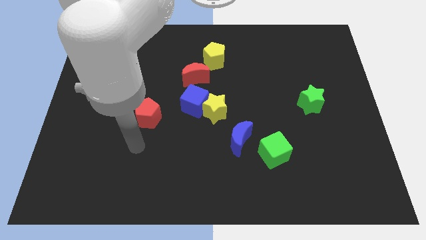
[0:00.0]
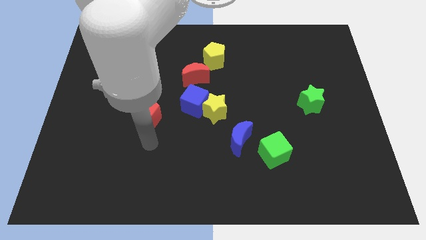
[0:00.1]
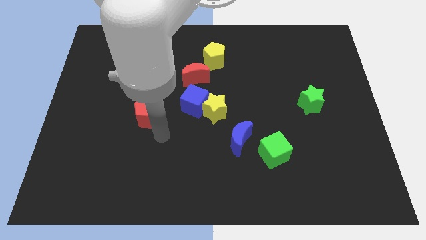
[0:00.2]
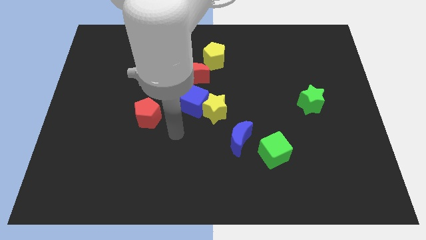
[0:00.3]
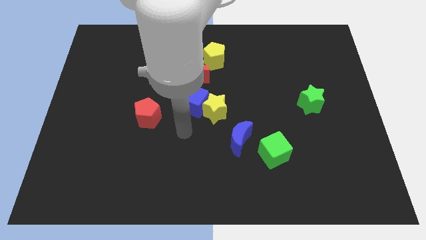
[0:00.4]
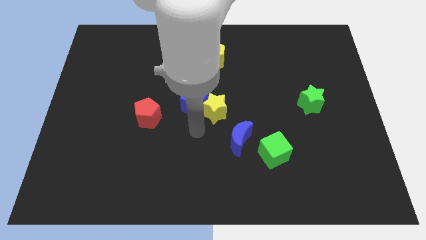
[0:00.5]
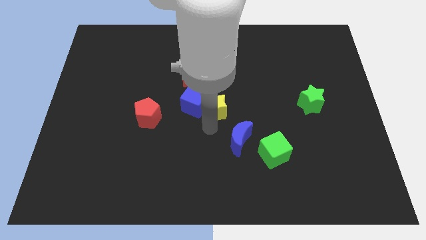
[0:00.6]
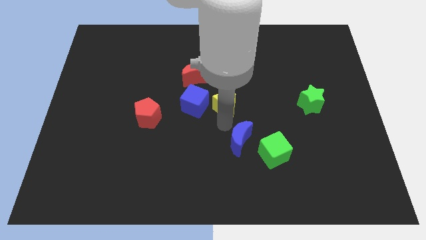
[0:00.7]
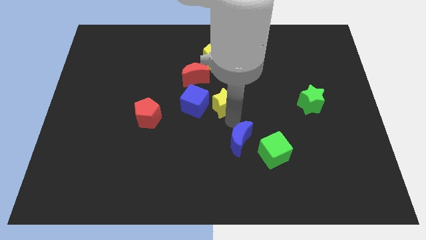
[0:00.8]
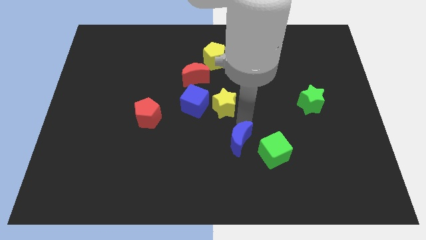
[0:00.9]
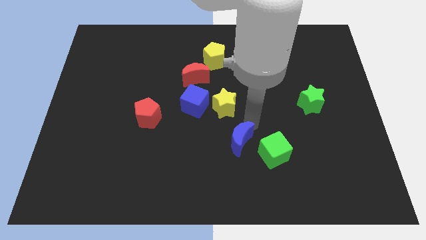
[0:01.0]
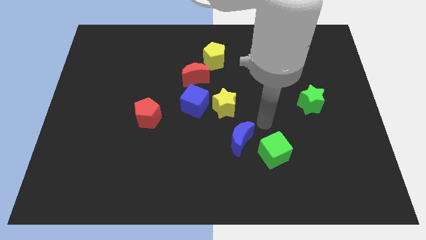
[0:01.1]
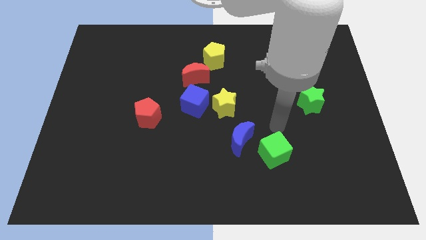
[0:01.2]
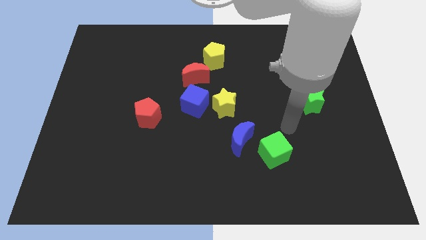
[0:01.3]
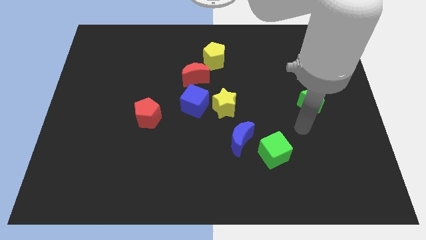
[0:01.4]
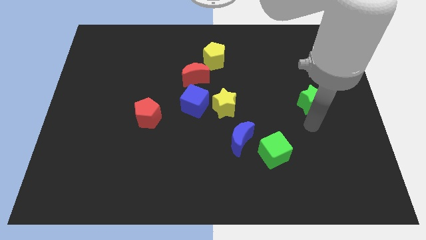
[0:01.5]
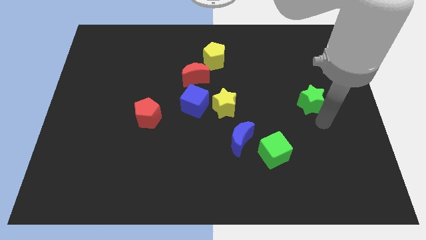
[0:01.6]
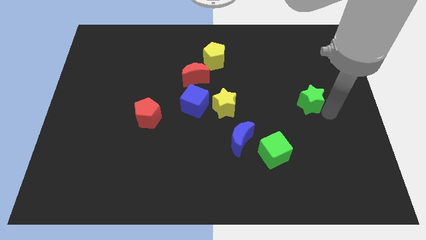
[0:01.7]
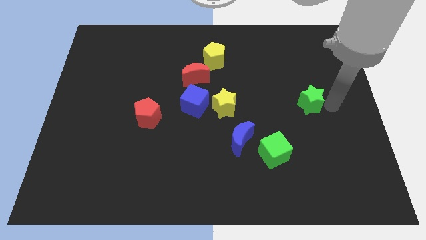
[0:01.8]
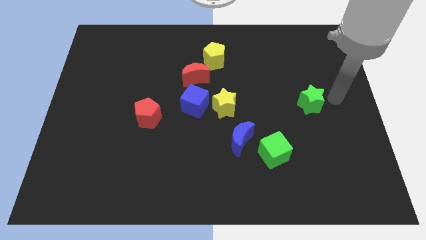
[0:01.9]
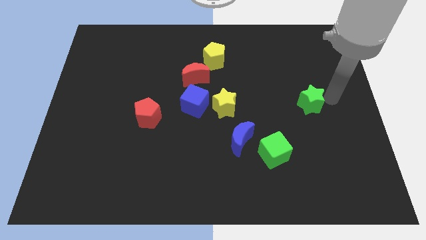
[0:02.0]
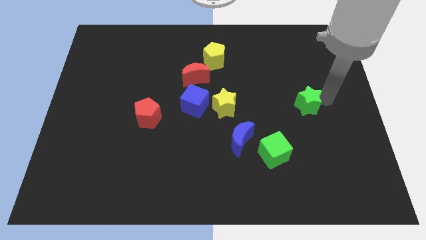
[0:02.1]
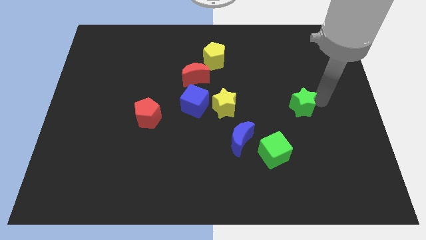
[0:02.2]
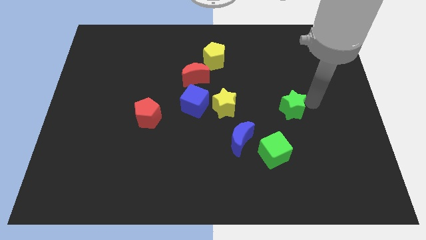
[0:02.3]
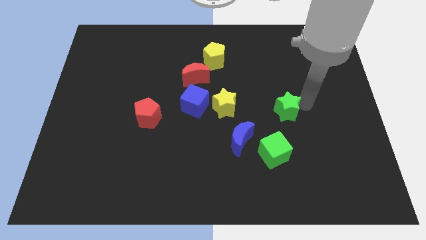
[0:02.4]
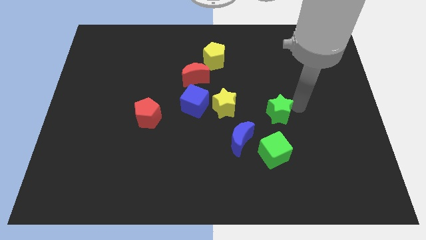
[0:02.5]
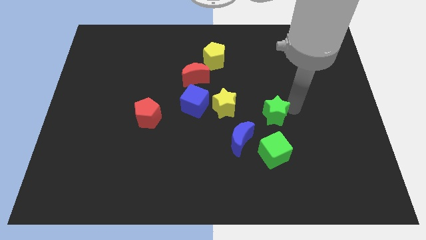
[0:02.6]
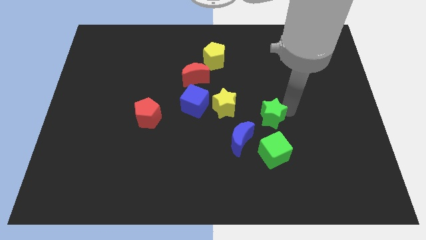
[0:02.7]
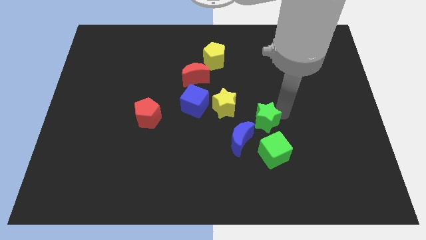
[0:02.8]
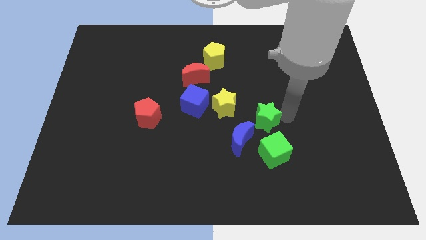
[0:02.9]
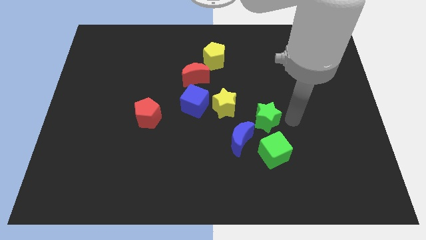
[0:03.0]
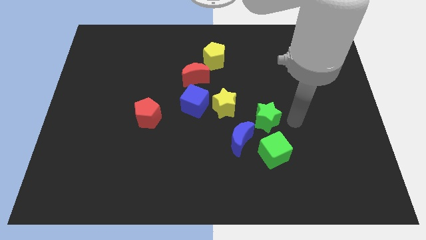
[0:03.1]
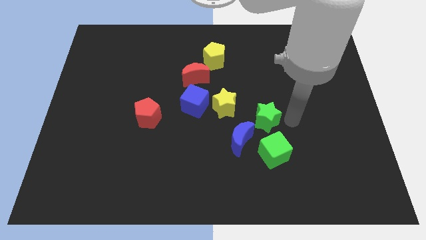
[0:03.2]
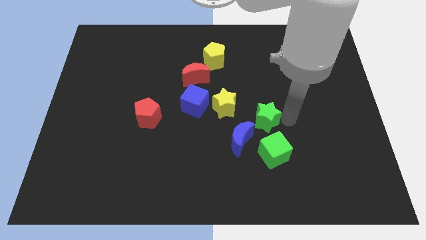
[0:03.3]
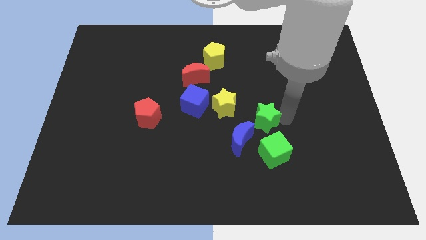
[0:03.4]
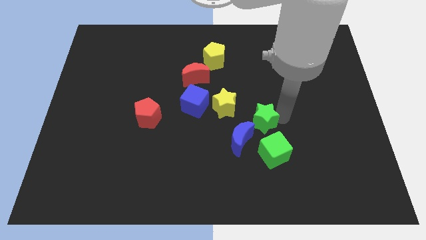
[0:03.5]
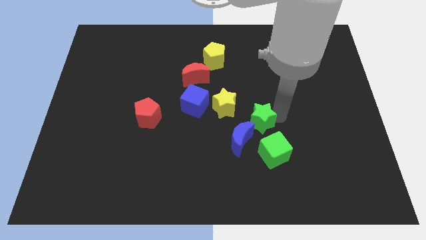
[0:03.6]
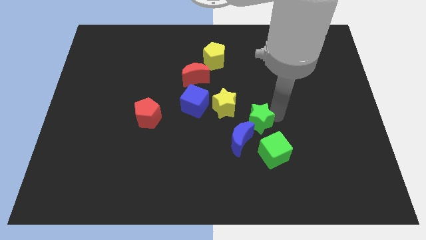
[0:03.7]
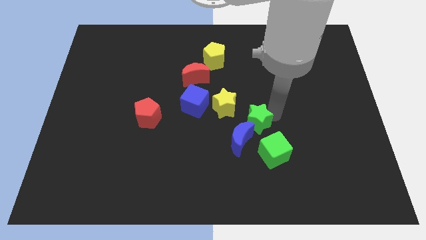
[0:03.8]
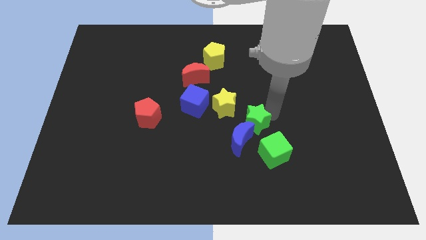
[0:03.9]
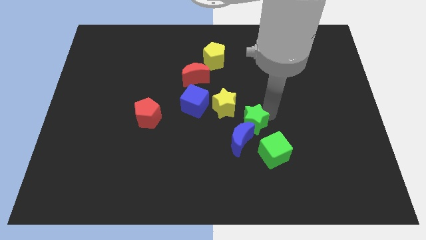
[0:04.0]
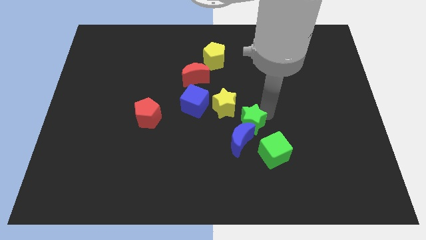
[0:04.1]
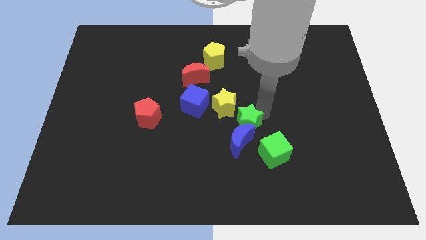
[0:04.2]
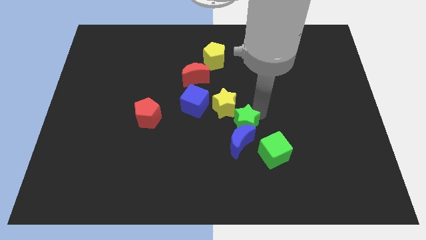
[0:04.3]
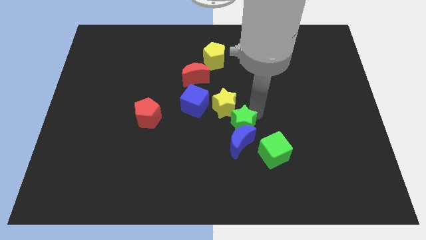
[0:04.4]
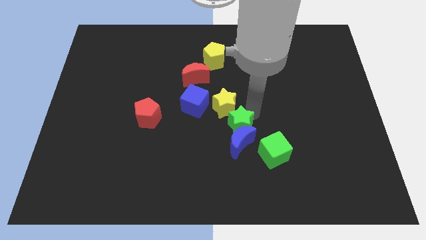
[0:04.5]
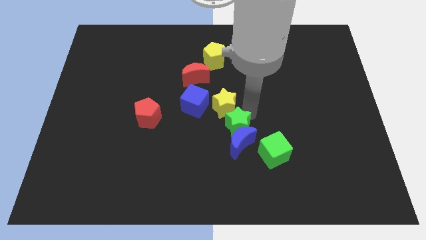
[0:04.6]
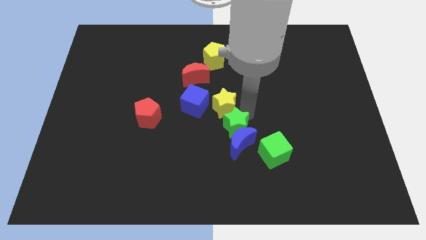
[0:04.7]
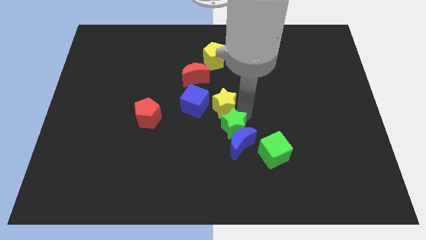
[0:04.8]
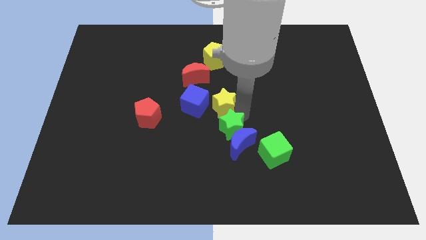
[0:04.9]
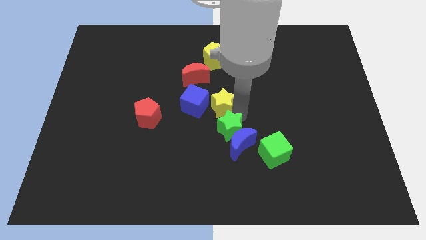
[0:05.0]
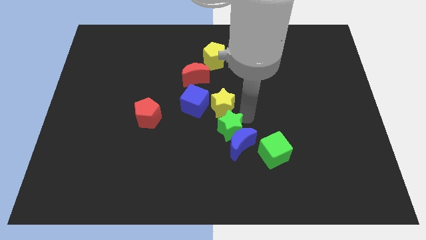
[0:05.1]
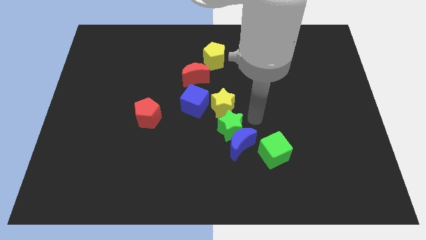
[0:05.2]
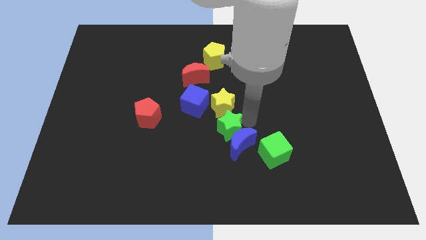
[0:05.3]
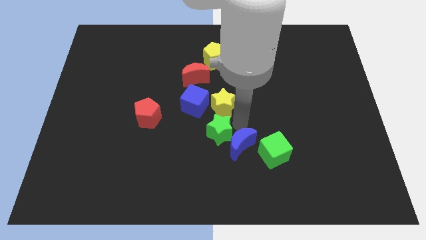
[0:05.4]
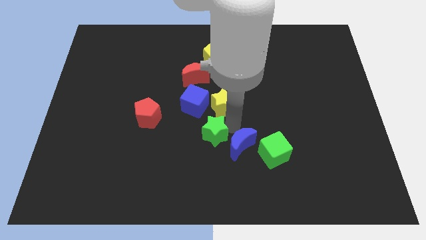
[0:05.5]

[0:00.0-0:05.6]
slide the green star to the bottom side of the blue cube

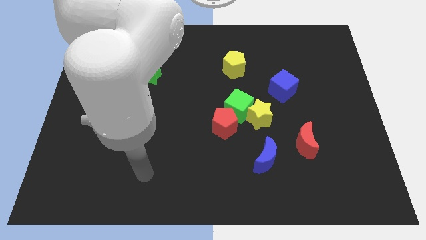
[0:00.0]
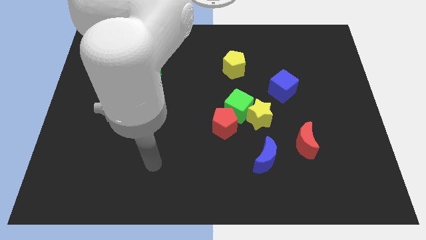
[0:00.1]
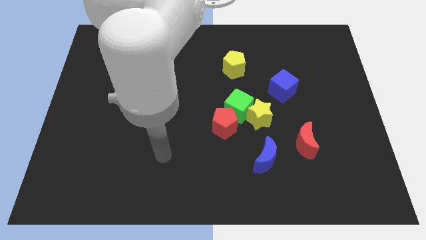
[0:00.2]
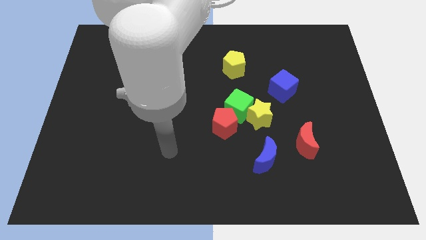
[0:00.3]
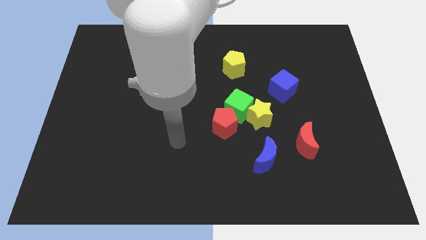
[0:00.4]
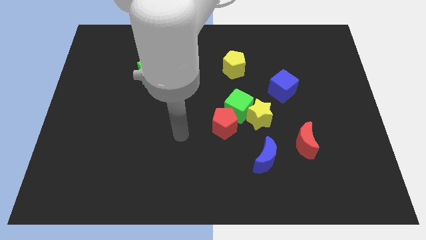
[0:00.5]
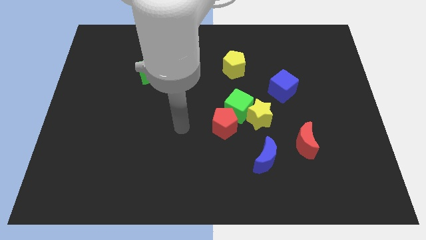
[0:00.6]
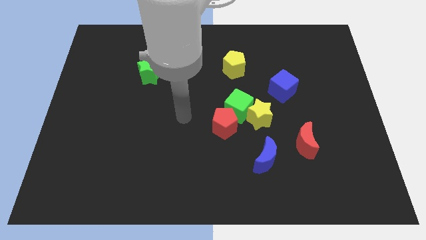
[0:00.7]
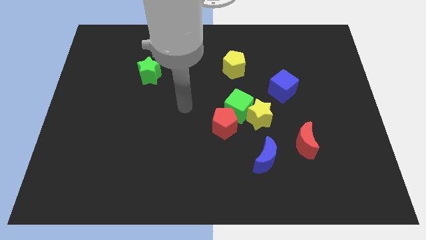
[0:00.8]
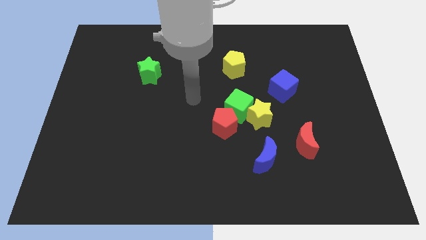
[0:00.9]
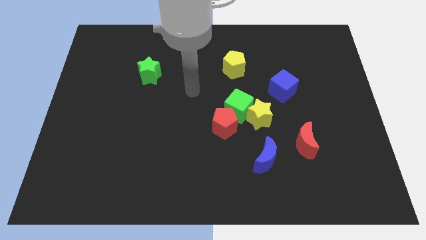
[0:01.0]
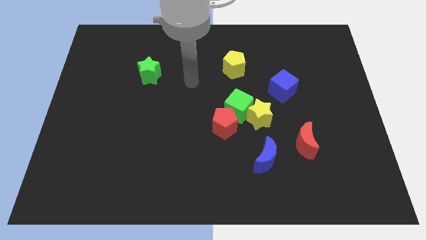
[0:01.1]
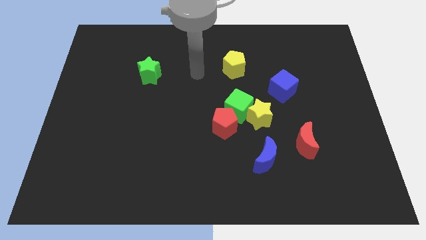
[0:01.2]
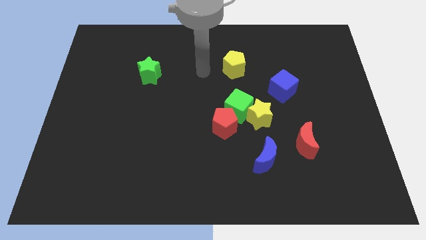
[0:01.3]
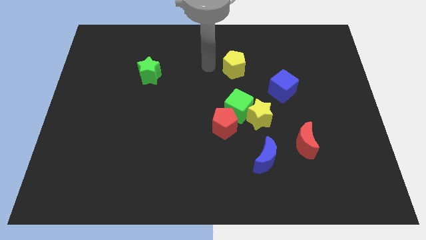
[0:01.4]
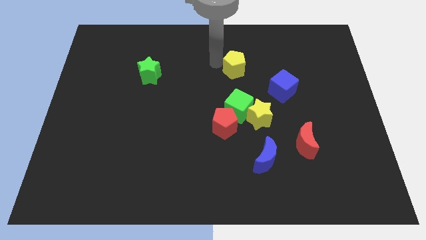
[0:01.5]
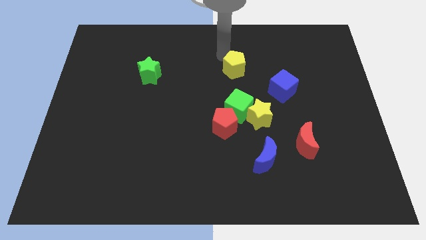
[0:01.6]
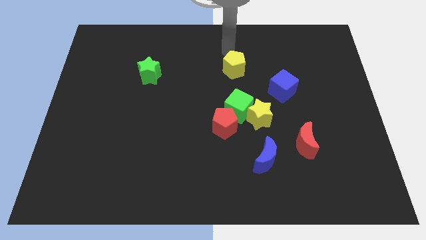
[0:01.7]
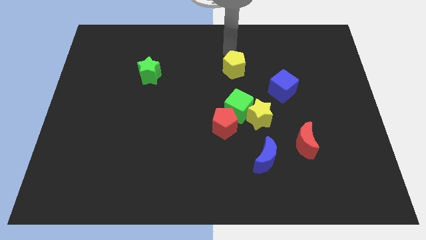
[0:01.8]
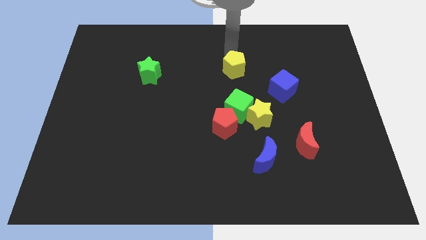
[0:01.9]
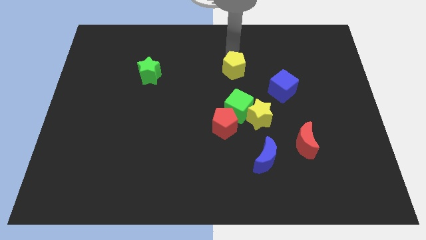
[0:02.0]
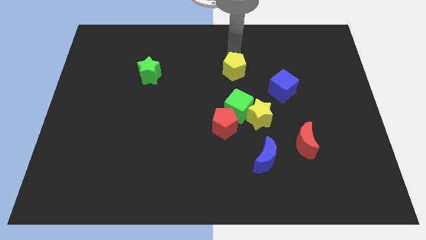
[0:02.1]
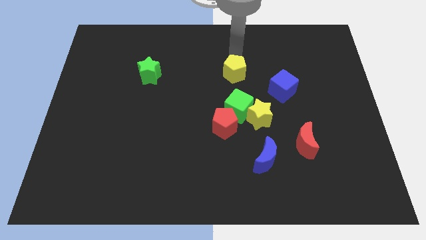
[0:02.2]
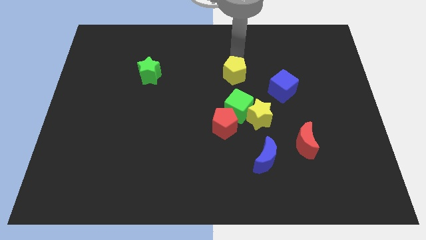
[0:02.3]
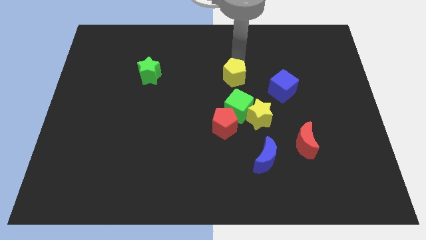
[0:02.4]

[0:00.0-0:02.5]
put the yellow pentagon to the left side of the blue cube
